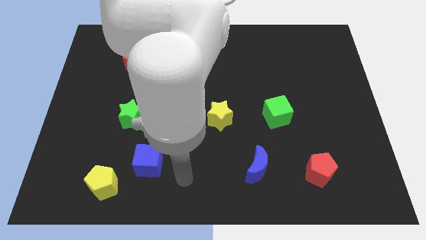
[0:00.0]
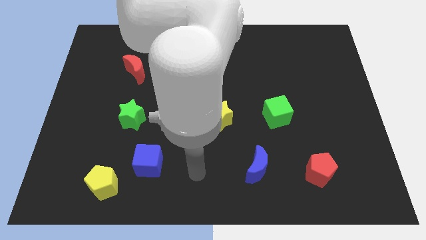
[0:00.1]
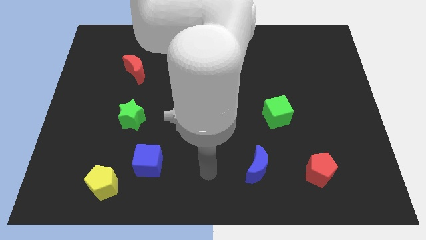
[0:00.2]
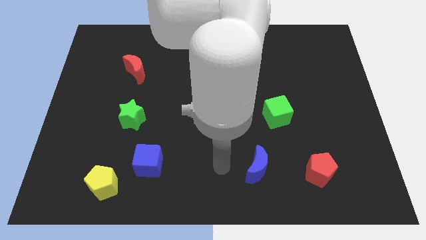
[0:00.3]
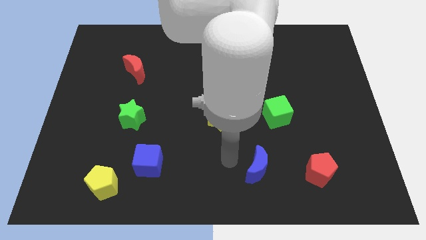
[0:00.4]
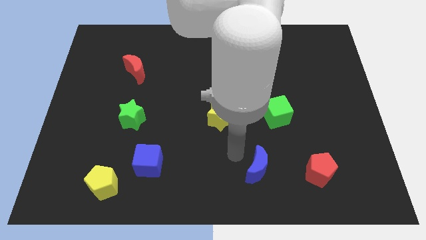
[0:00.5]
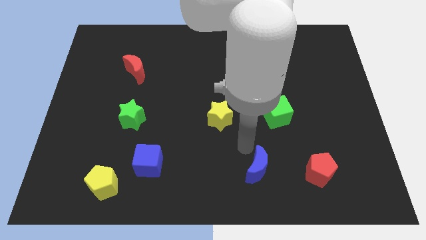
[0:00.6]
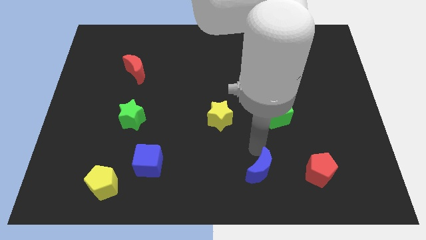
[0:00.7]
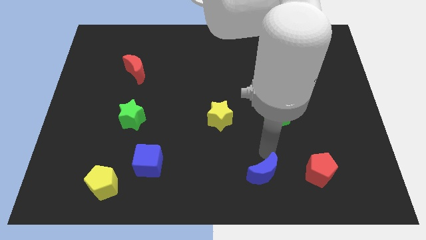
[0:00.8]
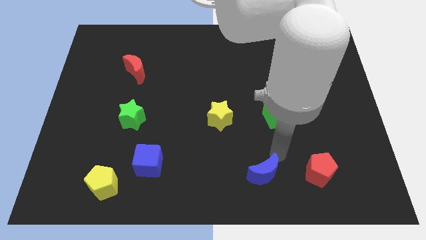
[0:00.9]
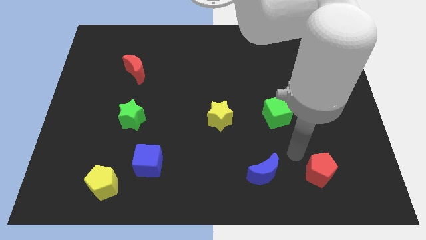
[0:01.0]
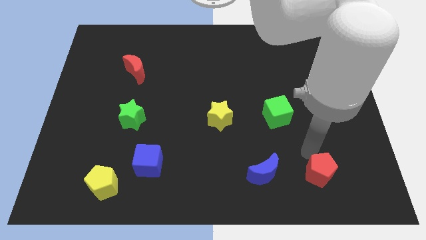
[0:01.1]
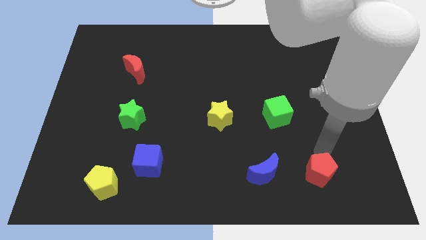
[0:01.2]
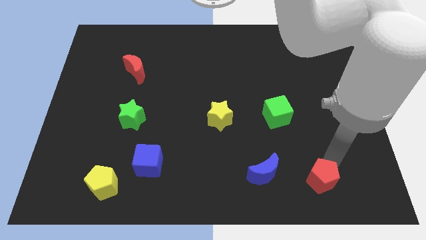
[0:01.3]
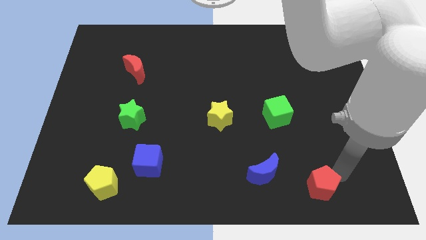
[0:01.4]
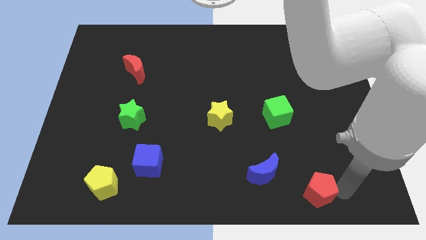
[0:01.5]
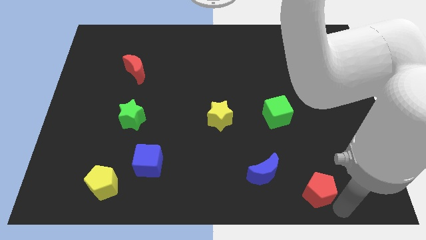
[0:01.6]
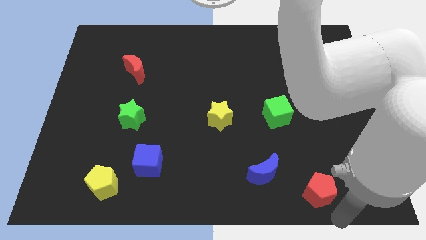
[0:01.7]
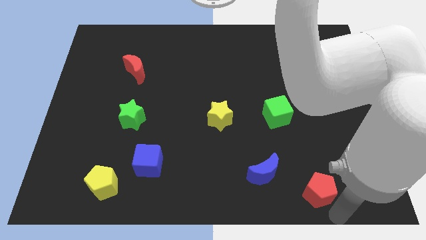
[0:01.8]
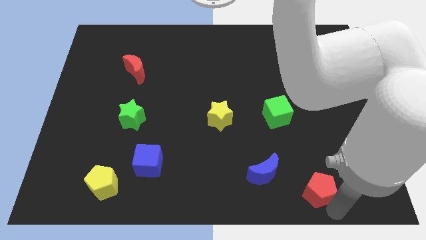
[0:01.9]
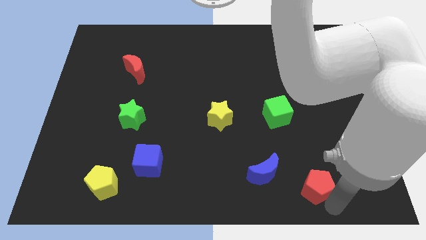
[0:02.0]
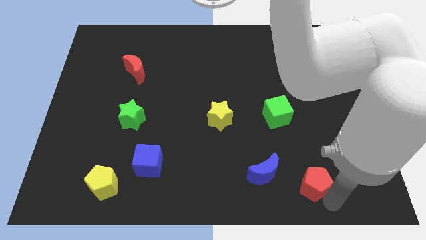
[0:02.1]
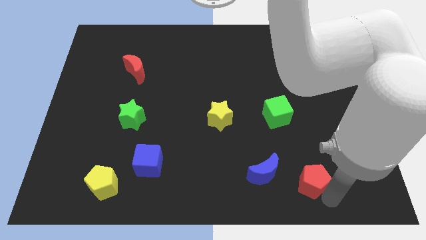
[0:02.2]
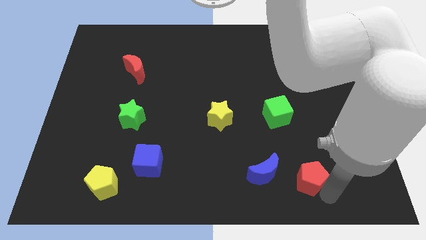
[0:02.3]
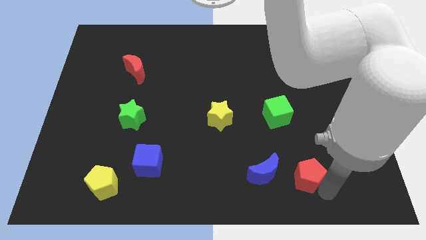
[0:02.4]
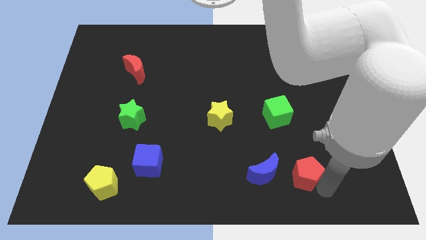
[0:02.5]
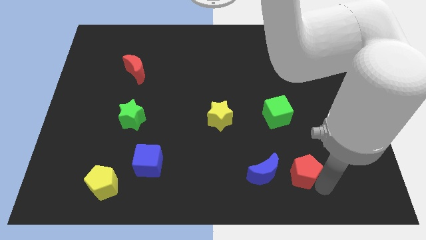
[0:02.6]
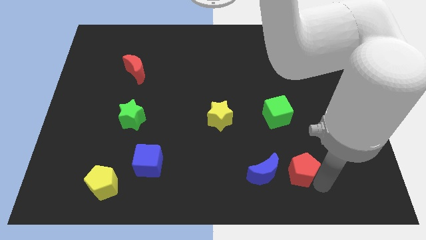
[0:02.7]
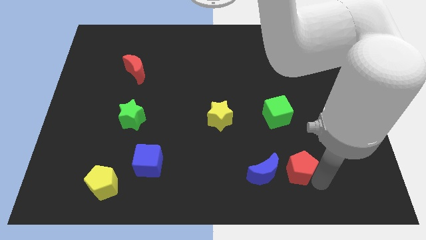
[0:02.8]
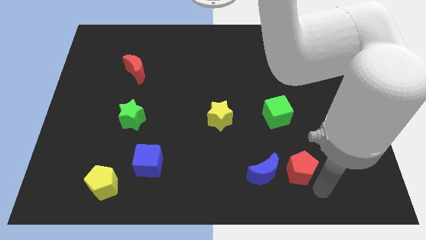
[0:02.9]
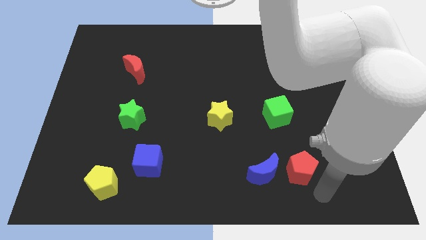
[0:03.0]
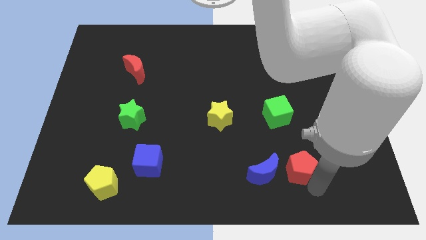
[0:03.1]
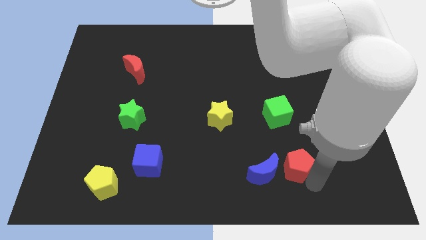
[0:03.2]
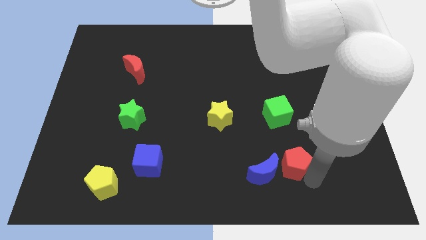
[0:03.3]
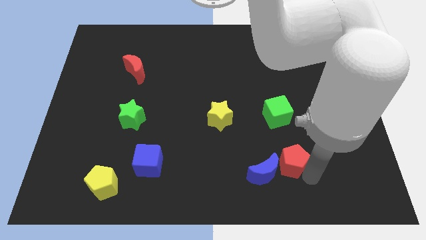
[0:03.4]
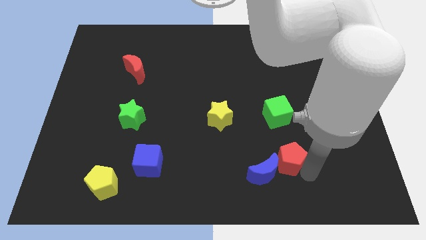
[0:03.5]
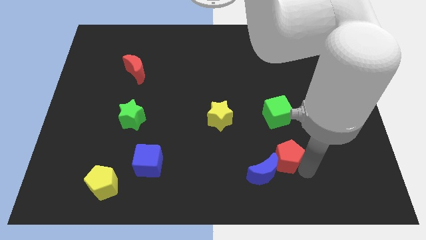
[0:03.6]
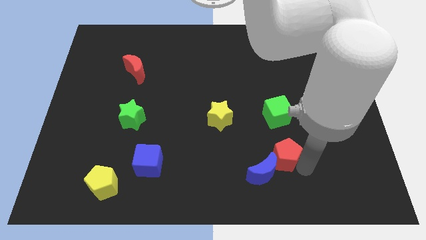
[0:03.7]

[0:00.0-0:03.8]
push the red pentagon diagonally upwards and left a bit

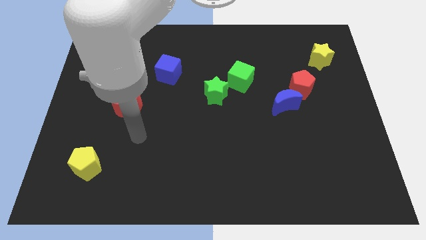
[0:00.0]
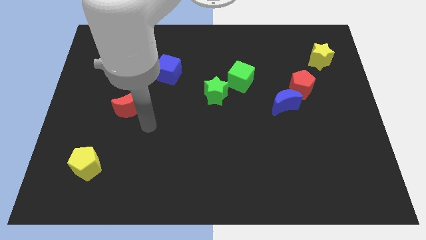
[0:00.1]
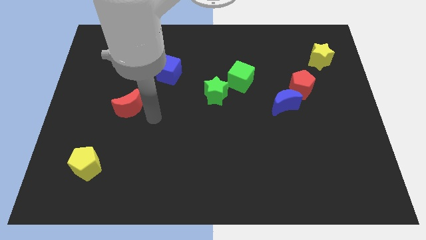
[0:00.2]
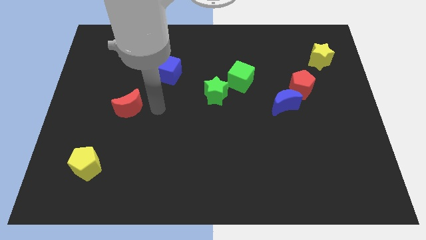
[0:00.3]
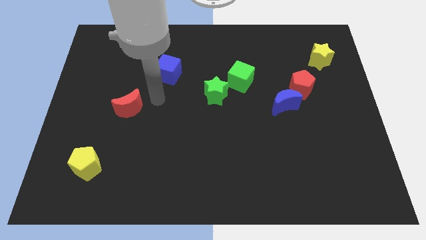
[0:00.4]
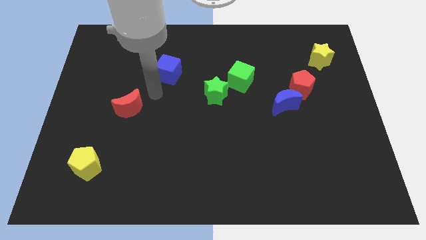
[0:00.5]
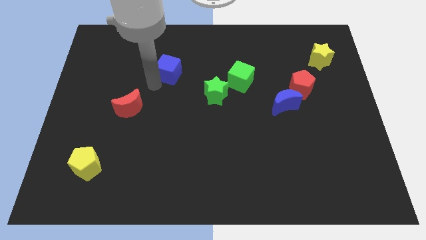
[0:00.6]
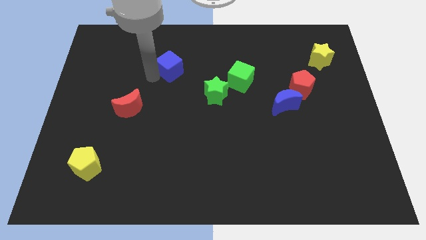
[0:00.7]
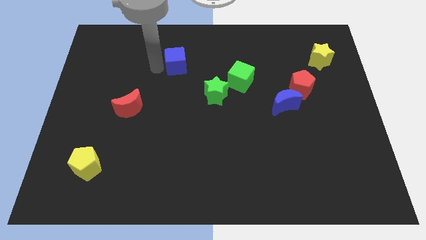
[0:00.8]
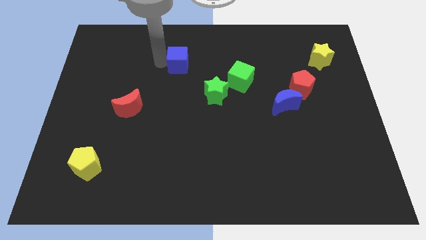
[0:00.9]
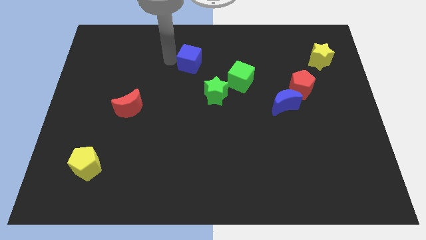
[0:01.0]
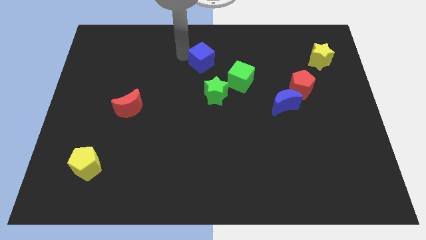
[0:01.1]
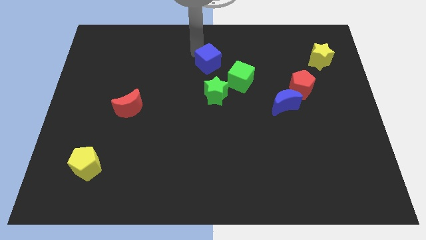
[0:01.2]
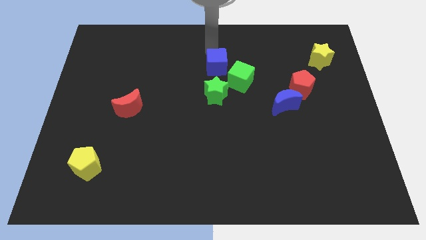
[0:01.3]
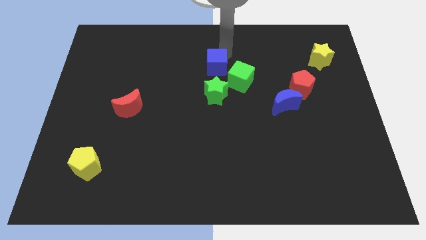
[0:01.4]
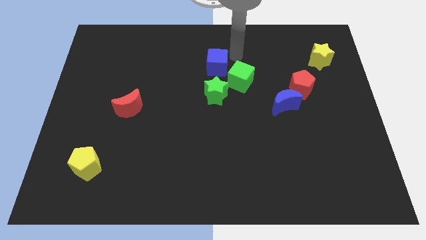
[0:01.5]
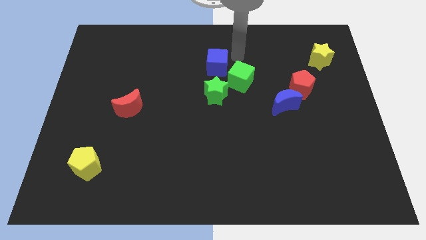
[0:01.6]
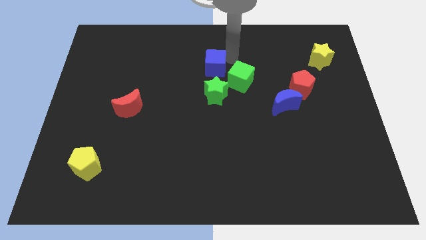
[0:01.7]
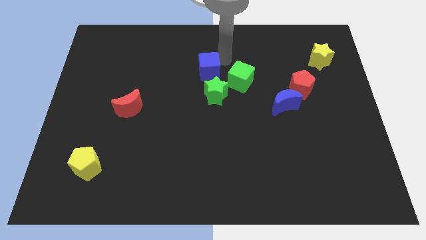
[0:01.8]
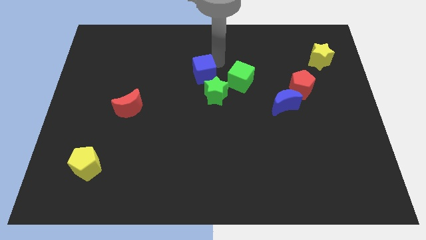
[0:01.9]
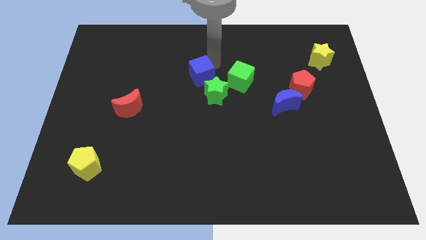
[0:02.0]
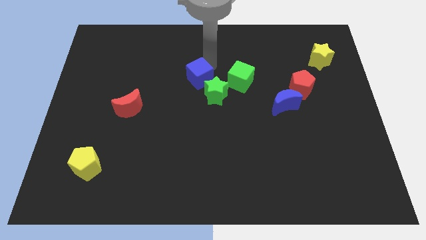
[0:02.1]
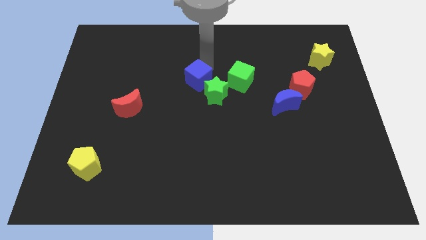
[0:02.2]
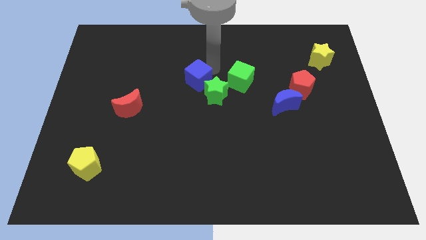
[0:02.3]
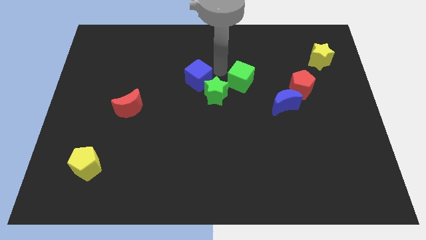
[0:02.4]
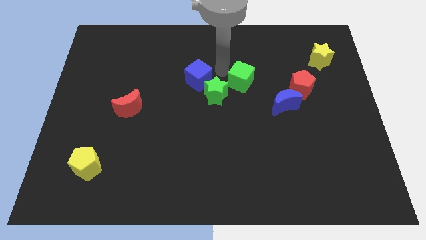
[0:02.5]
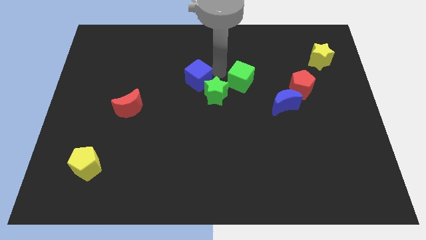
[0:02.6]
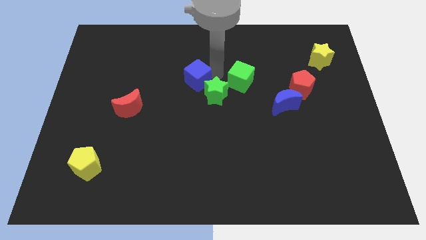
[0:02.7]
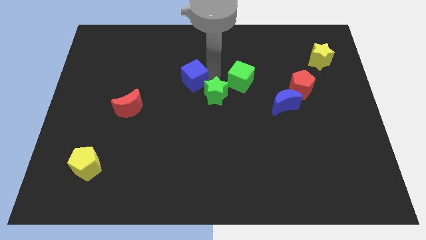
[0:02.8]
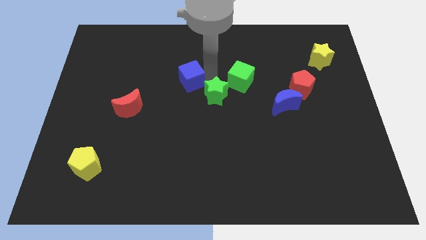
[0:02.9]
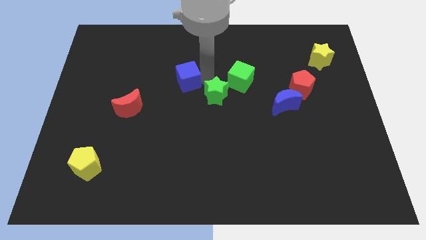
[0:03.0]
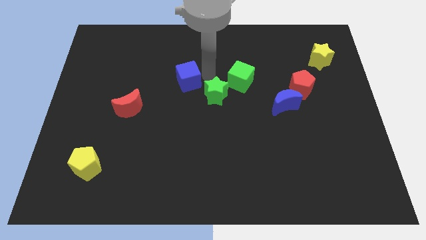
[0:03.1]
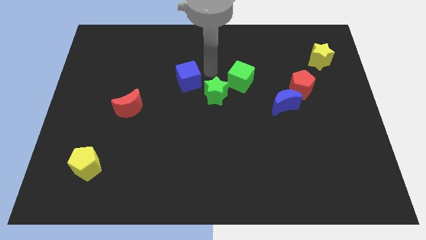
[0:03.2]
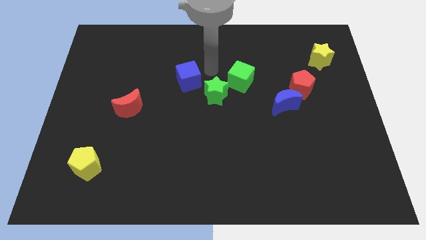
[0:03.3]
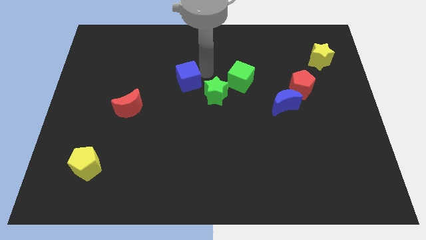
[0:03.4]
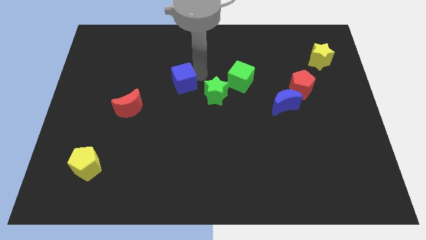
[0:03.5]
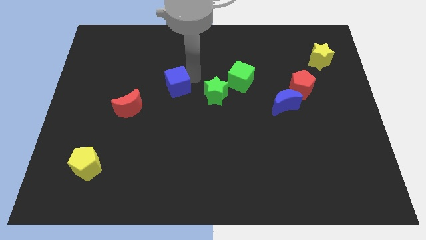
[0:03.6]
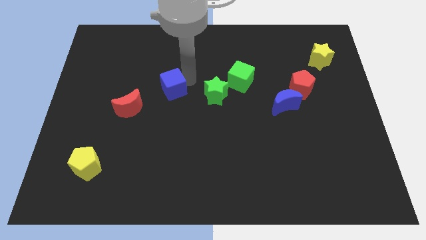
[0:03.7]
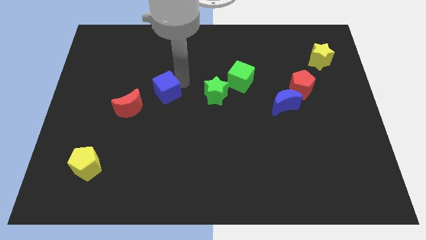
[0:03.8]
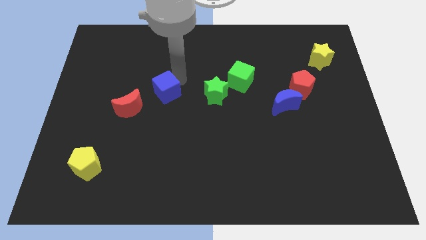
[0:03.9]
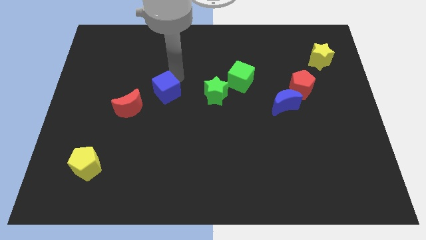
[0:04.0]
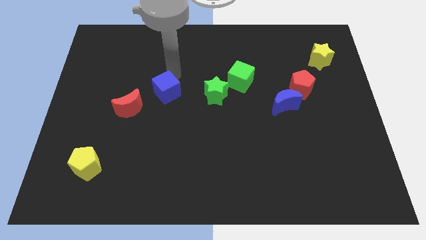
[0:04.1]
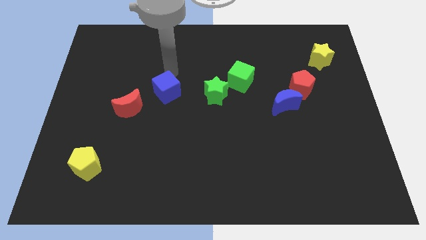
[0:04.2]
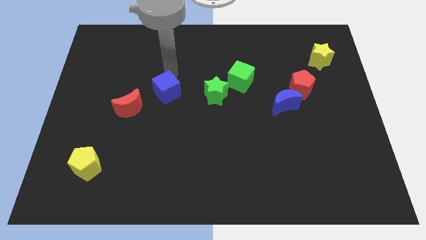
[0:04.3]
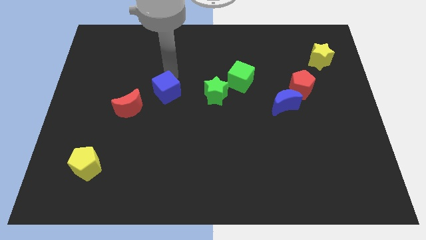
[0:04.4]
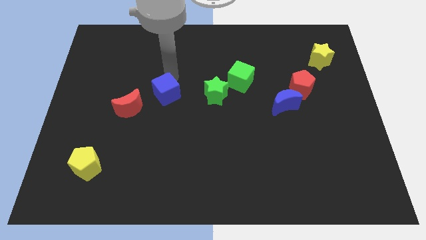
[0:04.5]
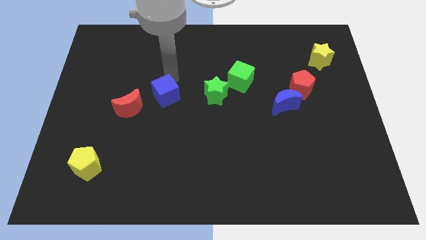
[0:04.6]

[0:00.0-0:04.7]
push the blue cube down slightly
